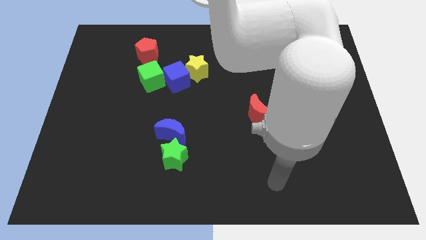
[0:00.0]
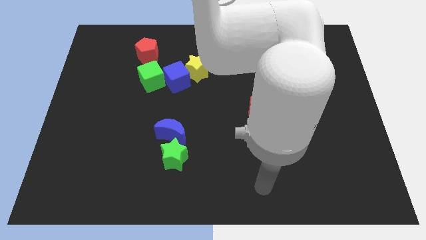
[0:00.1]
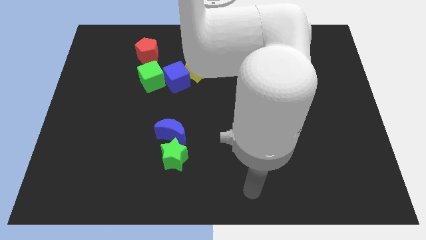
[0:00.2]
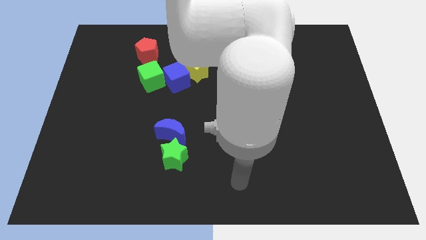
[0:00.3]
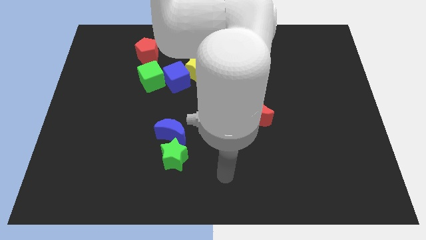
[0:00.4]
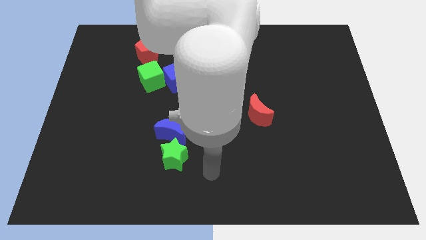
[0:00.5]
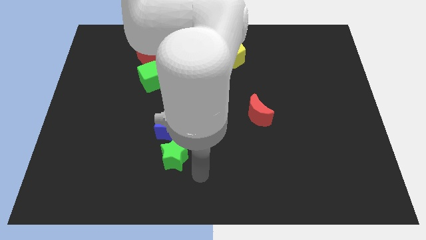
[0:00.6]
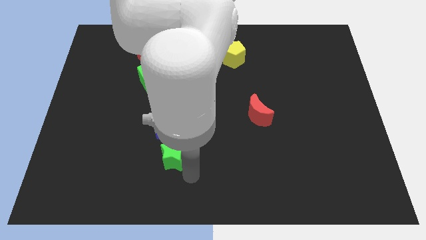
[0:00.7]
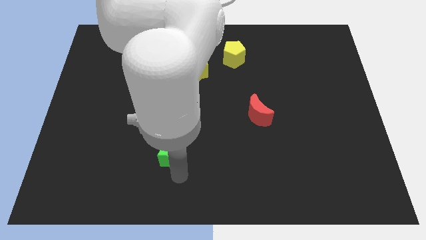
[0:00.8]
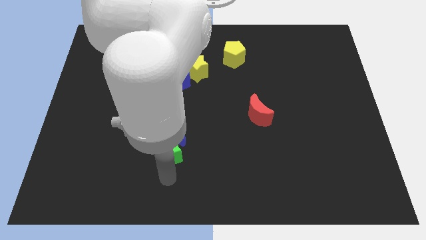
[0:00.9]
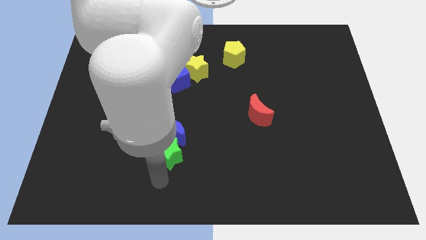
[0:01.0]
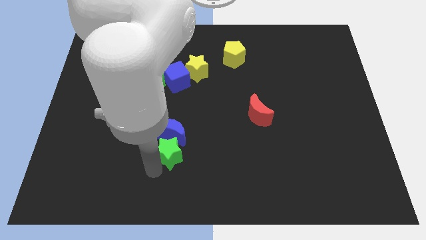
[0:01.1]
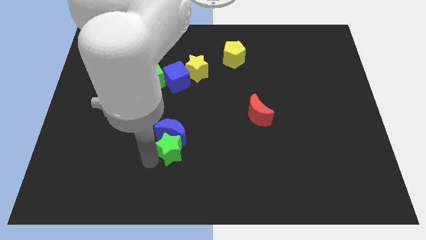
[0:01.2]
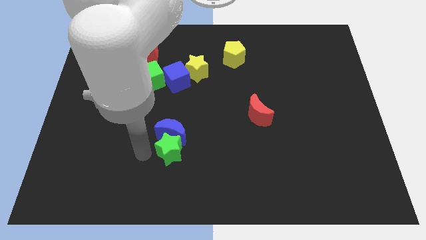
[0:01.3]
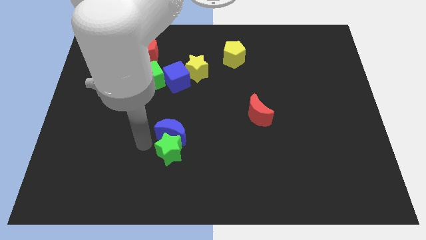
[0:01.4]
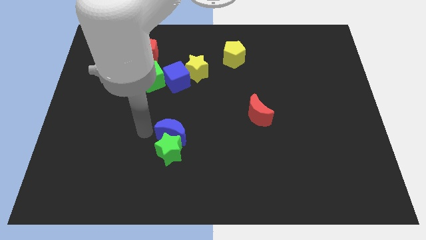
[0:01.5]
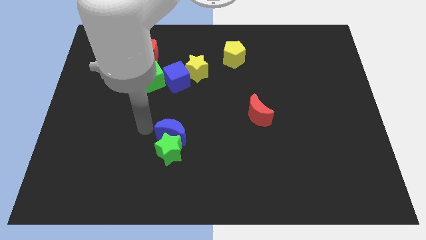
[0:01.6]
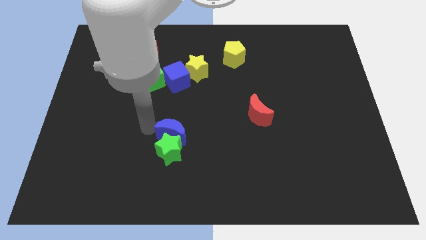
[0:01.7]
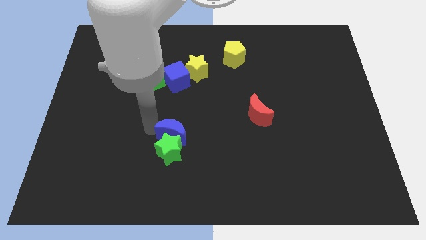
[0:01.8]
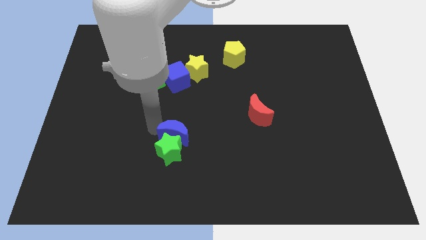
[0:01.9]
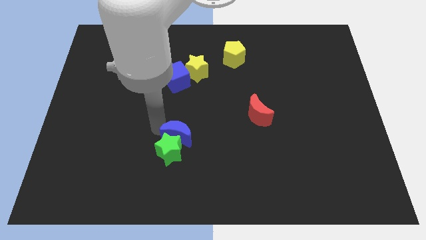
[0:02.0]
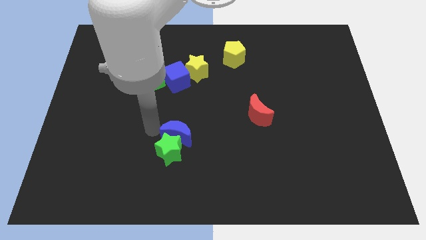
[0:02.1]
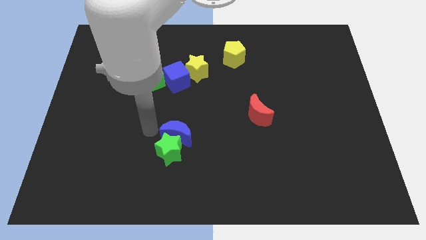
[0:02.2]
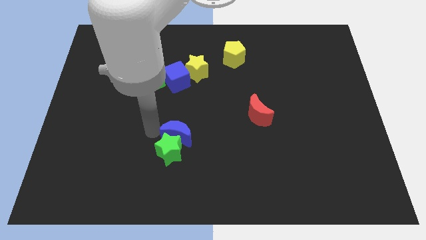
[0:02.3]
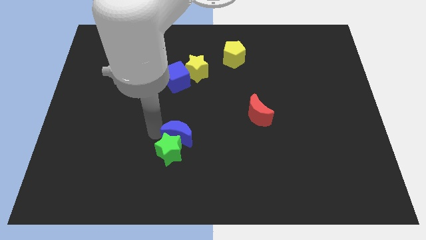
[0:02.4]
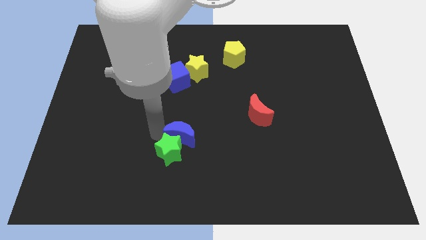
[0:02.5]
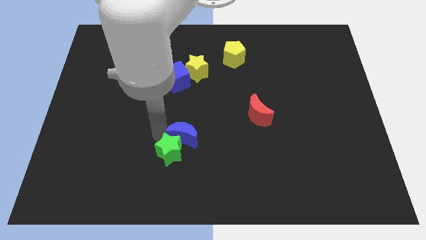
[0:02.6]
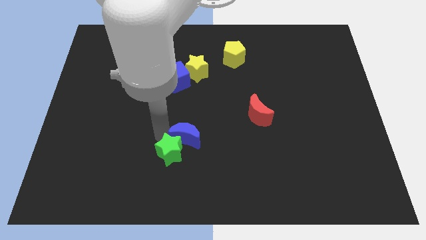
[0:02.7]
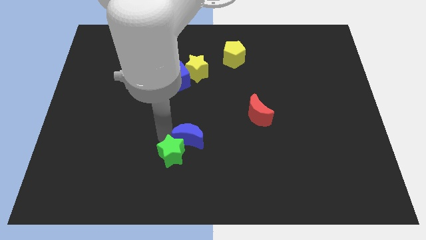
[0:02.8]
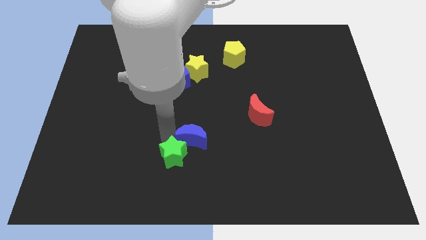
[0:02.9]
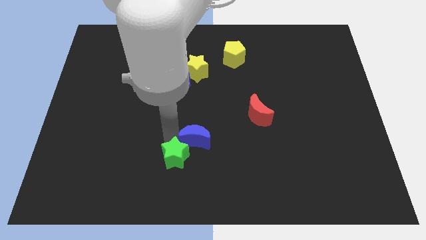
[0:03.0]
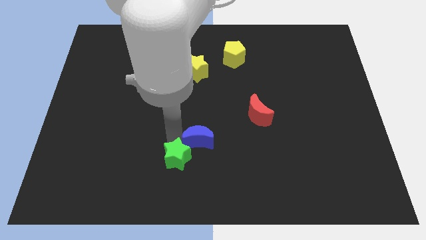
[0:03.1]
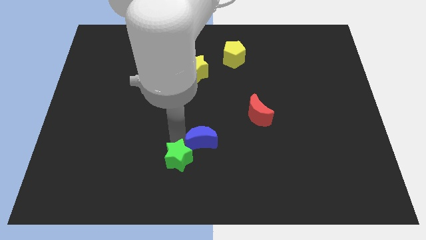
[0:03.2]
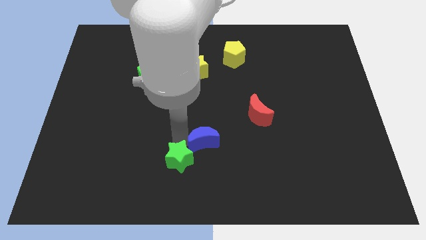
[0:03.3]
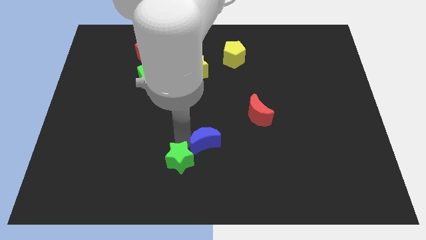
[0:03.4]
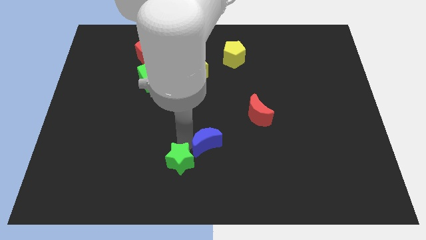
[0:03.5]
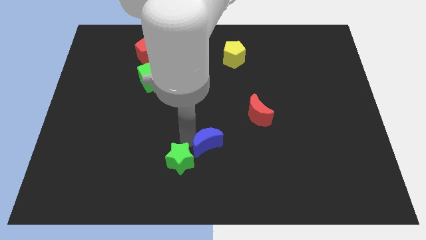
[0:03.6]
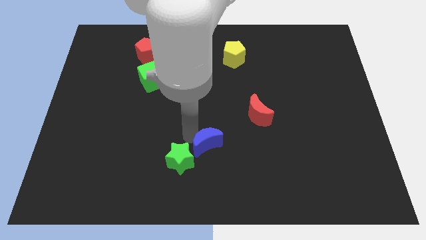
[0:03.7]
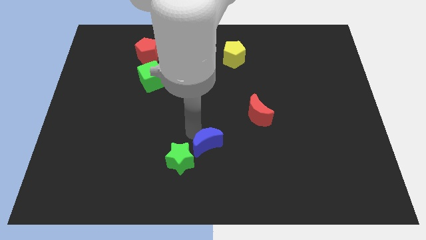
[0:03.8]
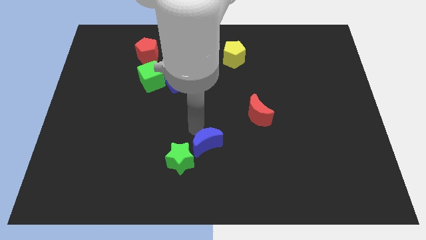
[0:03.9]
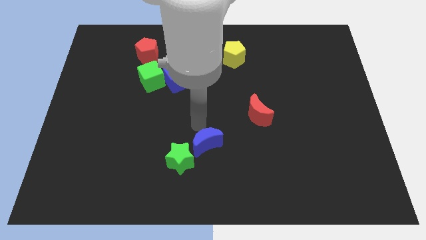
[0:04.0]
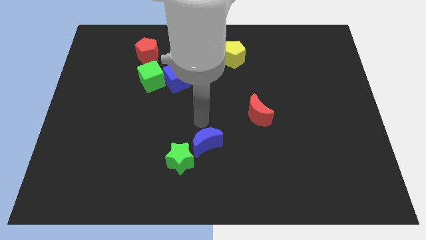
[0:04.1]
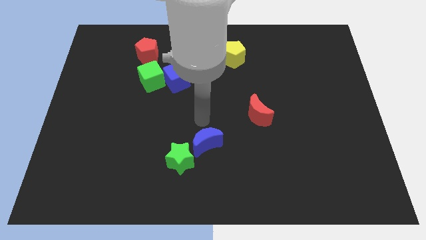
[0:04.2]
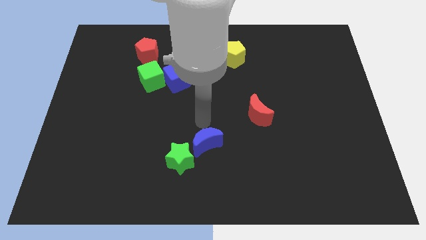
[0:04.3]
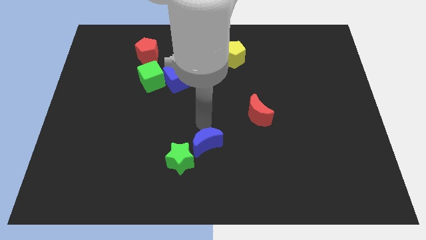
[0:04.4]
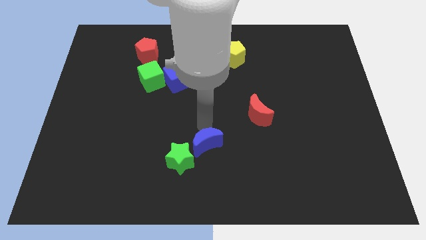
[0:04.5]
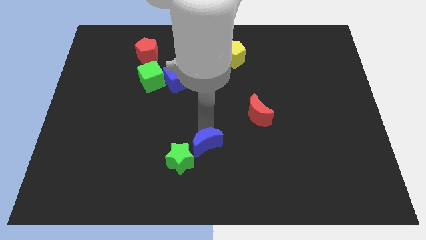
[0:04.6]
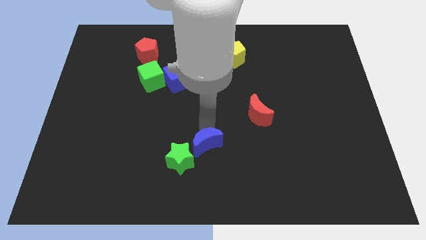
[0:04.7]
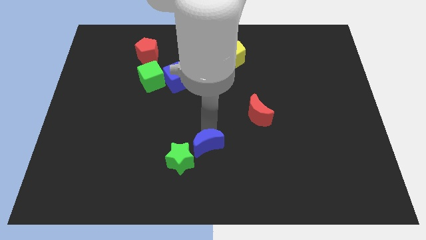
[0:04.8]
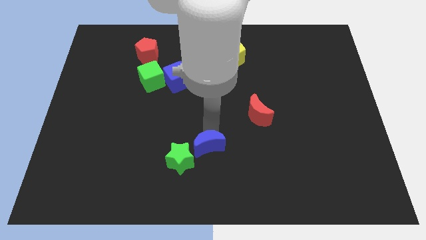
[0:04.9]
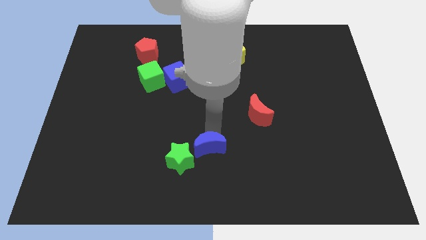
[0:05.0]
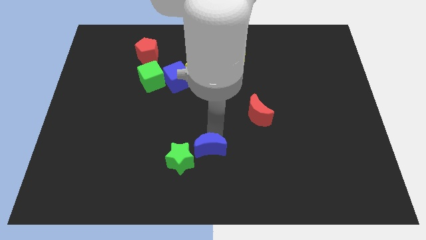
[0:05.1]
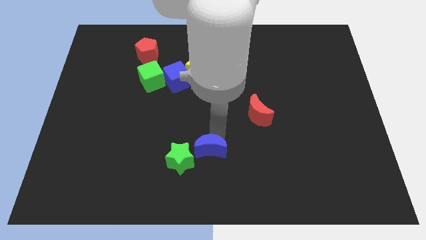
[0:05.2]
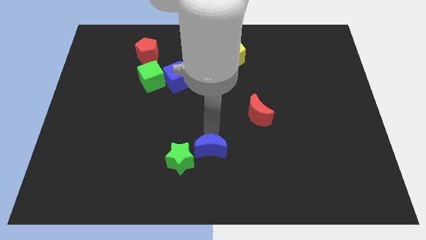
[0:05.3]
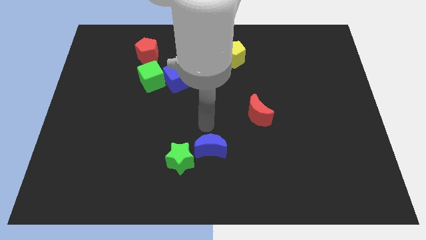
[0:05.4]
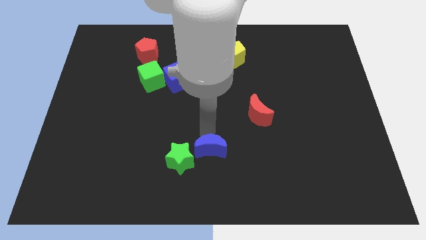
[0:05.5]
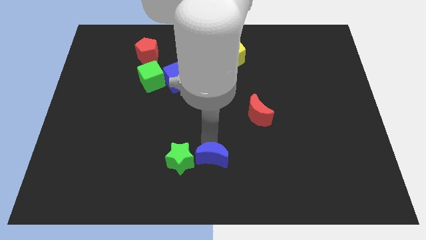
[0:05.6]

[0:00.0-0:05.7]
move the blue moon to the bottom
